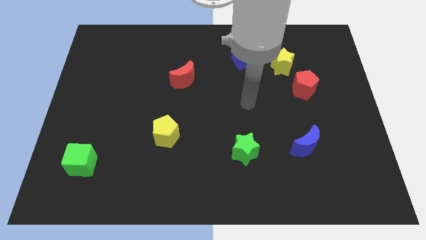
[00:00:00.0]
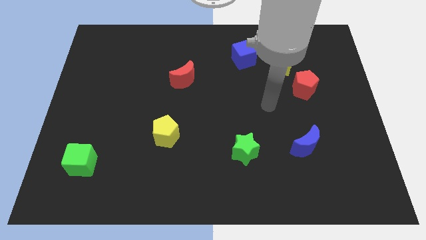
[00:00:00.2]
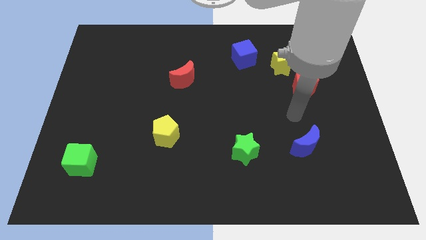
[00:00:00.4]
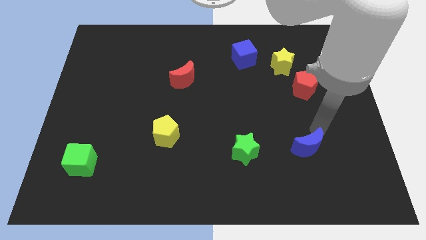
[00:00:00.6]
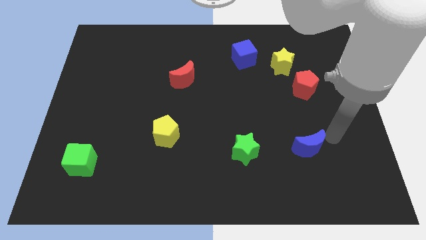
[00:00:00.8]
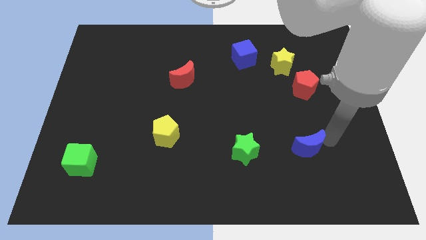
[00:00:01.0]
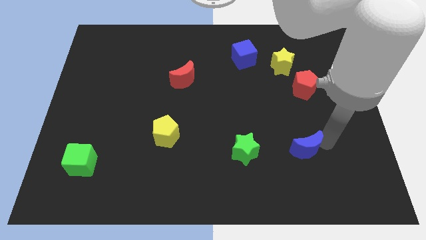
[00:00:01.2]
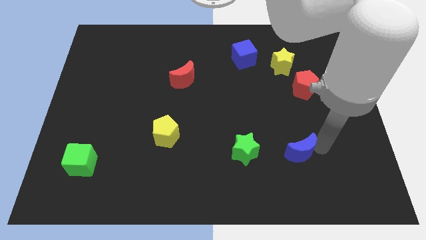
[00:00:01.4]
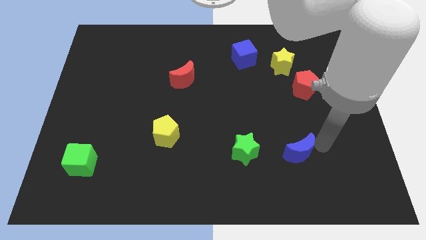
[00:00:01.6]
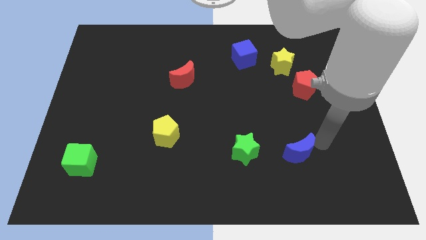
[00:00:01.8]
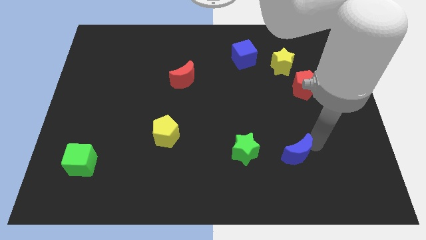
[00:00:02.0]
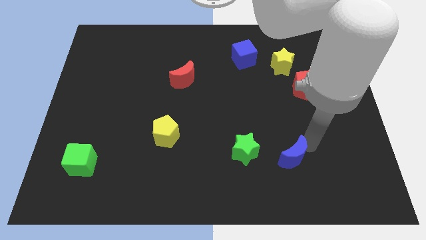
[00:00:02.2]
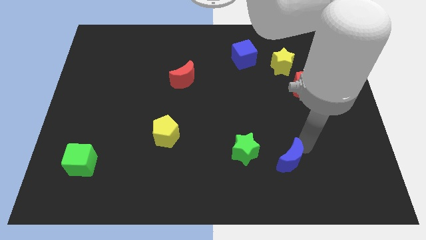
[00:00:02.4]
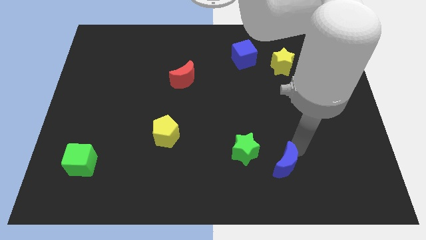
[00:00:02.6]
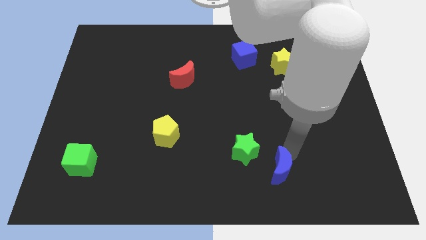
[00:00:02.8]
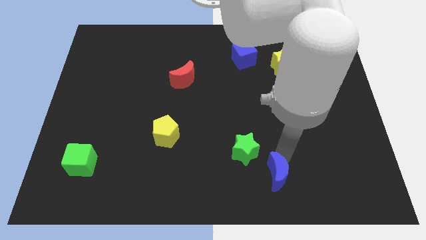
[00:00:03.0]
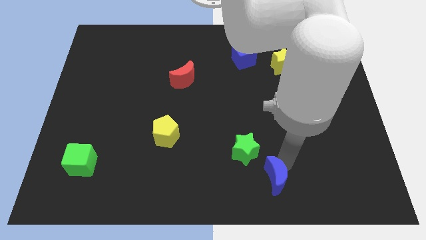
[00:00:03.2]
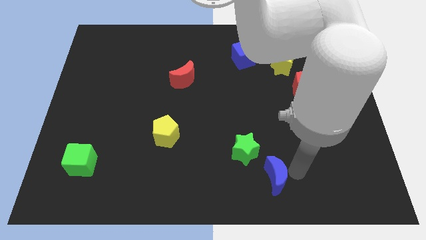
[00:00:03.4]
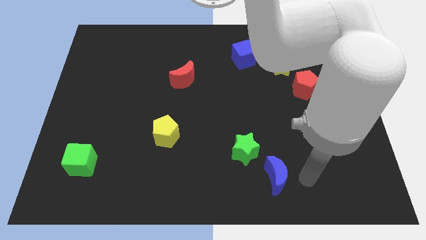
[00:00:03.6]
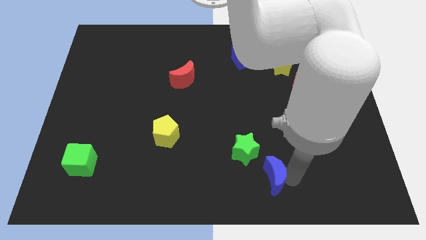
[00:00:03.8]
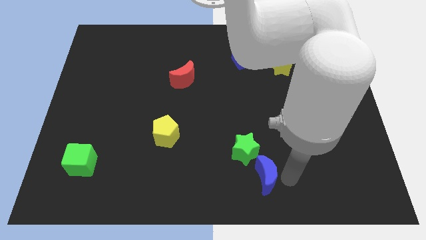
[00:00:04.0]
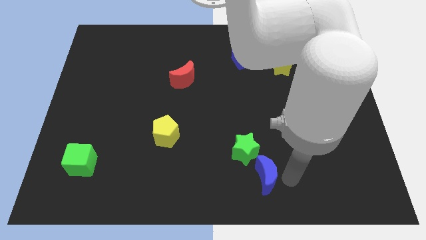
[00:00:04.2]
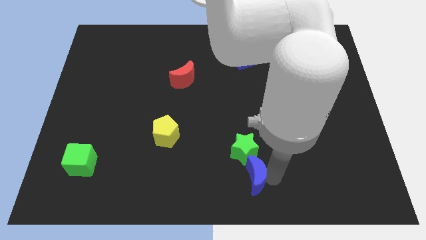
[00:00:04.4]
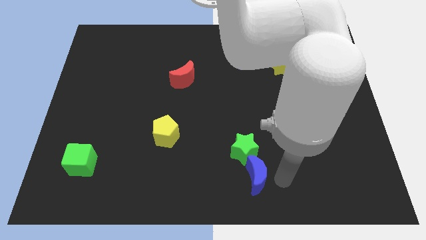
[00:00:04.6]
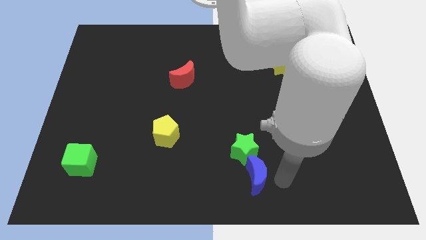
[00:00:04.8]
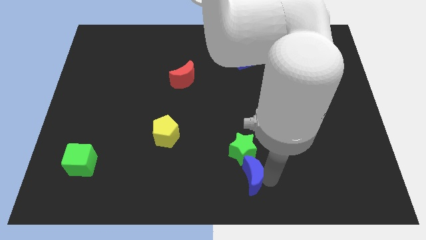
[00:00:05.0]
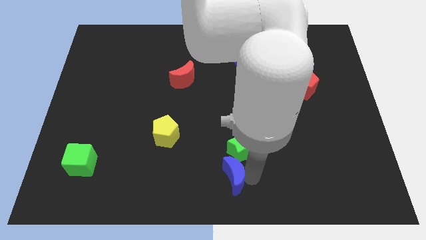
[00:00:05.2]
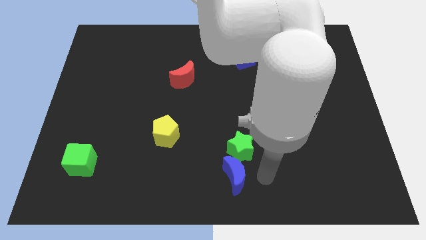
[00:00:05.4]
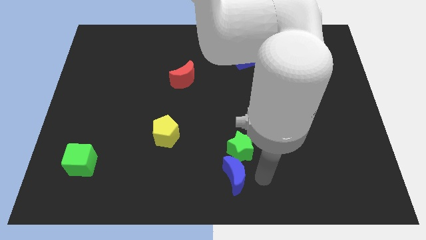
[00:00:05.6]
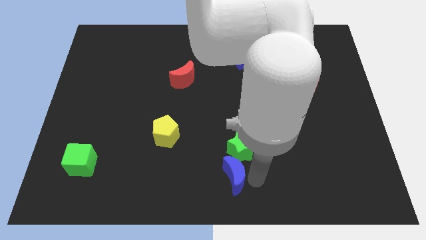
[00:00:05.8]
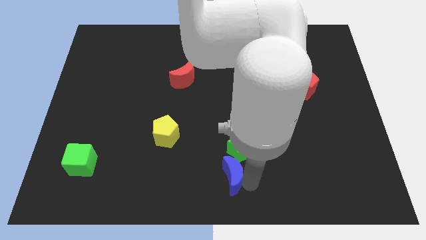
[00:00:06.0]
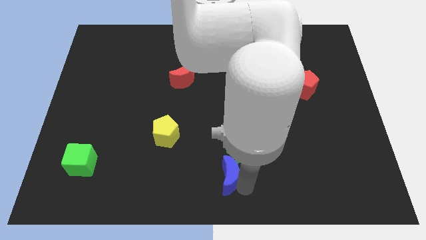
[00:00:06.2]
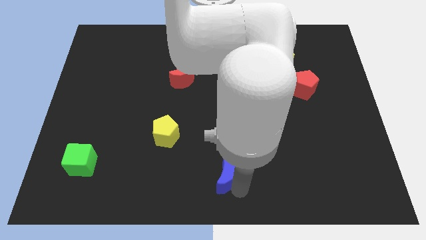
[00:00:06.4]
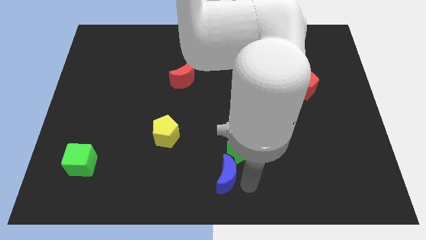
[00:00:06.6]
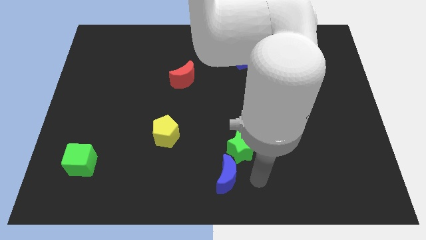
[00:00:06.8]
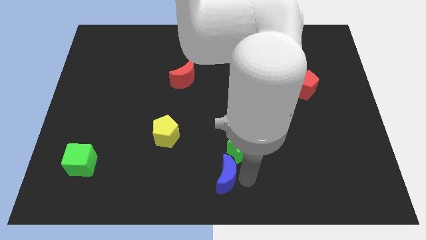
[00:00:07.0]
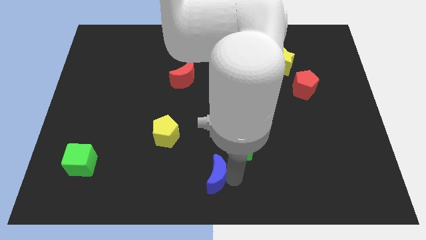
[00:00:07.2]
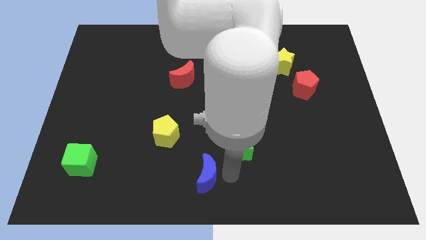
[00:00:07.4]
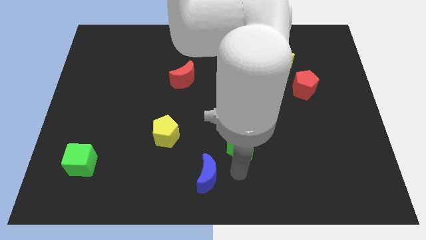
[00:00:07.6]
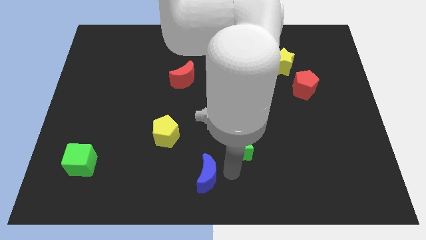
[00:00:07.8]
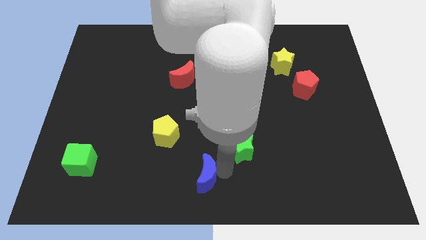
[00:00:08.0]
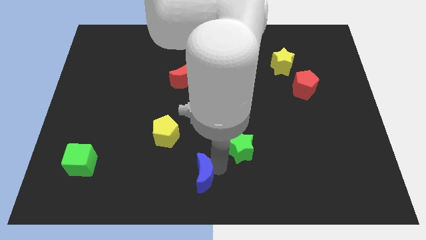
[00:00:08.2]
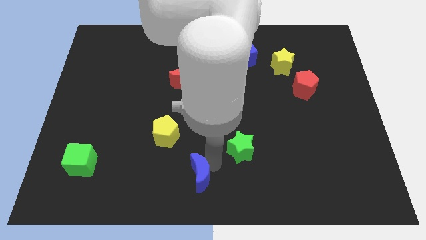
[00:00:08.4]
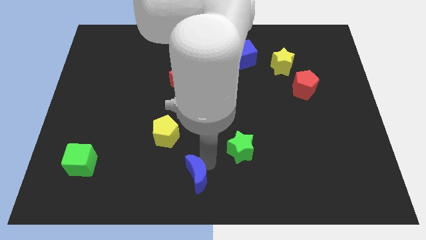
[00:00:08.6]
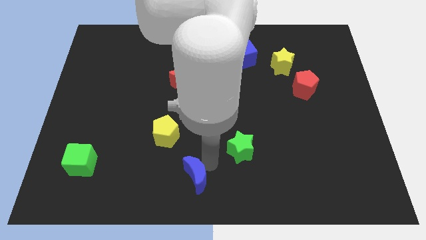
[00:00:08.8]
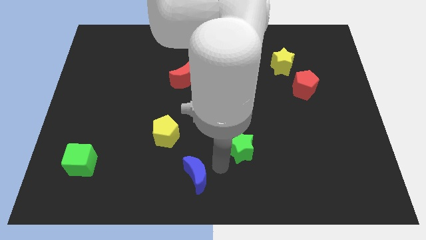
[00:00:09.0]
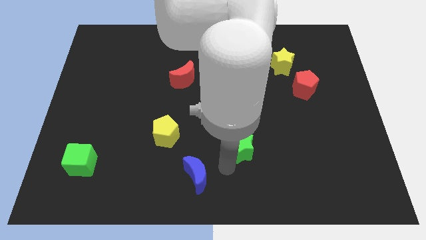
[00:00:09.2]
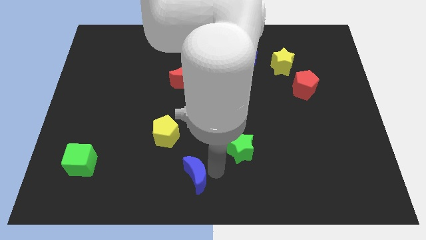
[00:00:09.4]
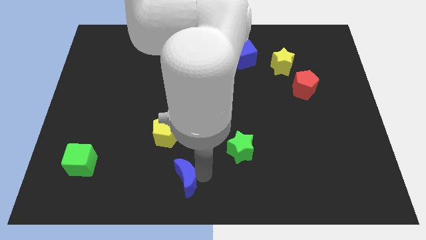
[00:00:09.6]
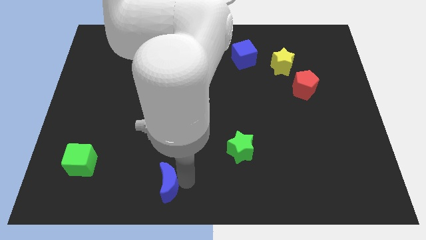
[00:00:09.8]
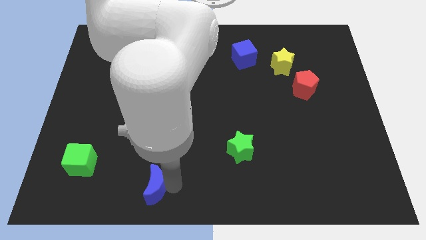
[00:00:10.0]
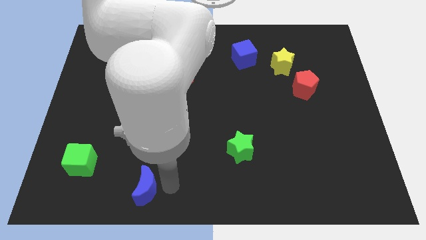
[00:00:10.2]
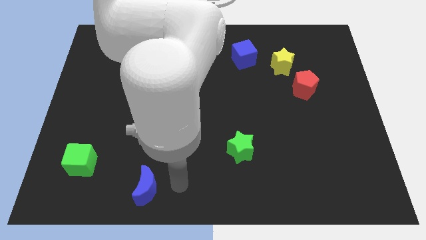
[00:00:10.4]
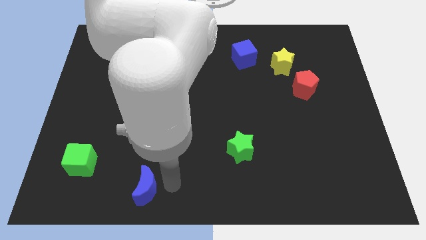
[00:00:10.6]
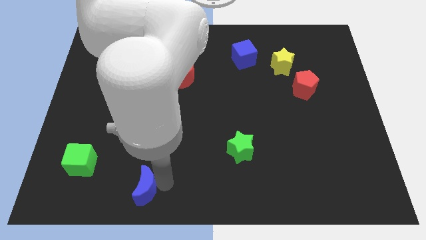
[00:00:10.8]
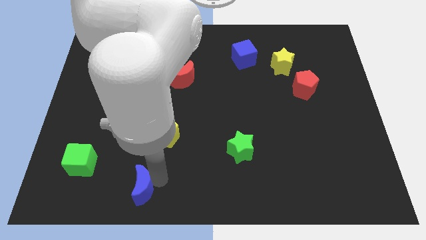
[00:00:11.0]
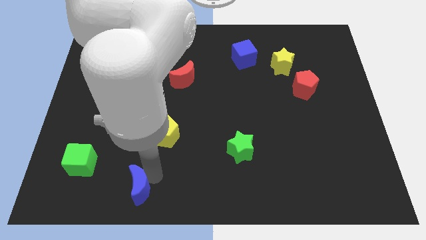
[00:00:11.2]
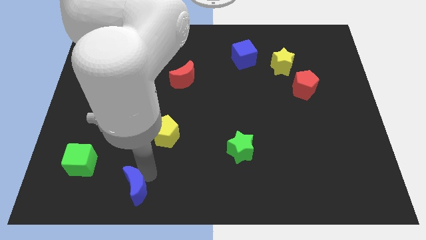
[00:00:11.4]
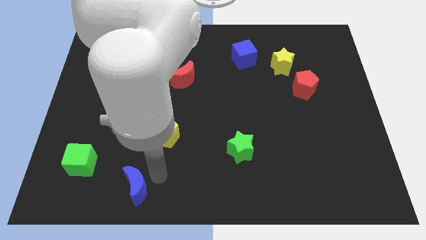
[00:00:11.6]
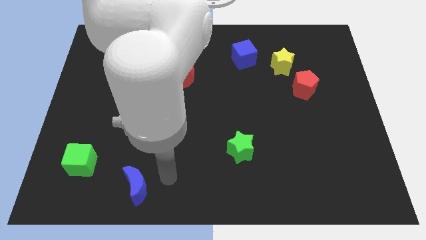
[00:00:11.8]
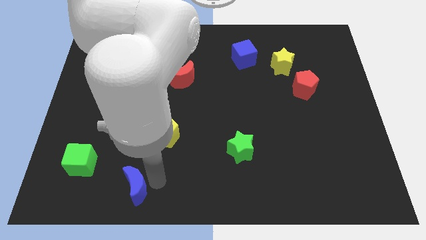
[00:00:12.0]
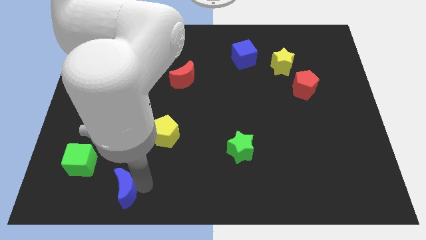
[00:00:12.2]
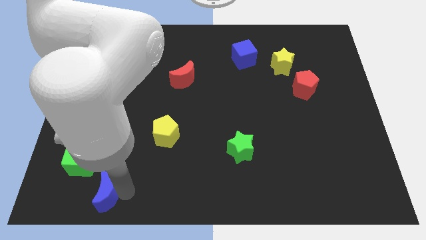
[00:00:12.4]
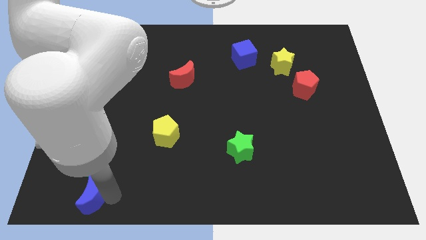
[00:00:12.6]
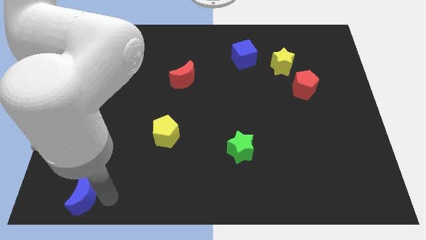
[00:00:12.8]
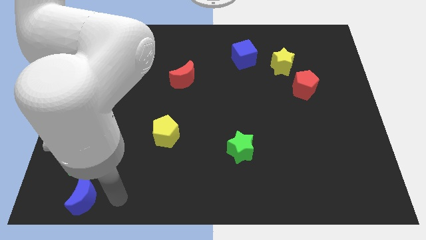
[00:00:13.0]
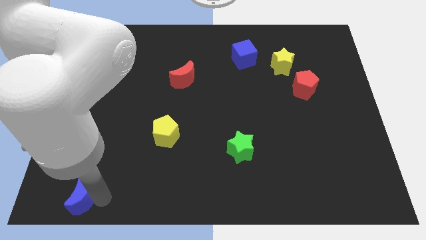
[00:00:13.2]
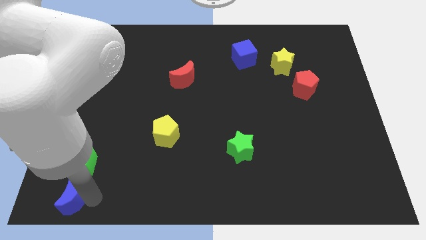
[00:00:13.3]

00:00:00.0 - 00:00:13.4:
slide the blue moon to the bottom left of the board
